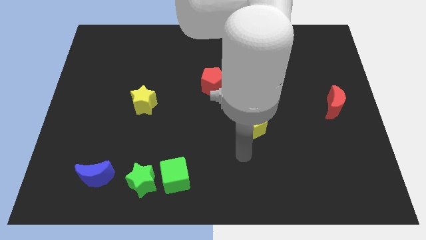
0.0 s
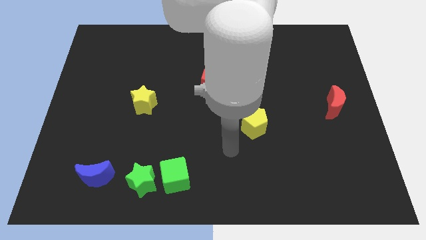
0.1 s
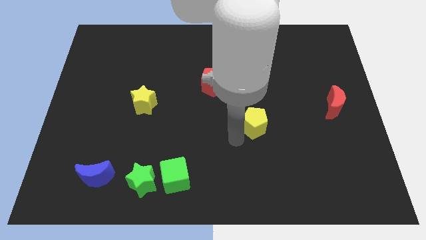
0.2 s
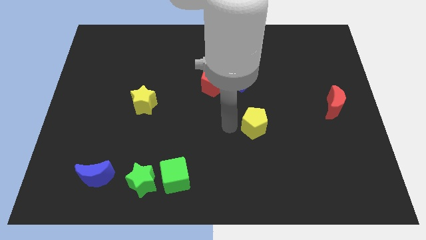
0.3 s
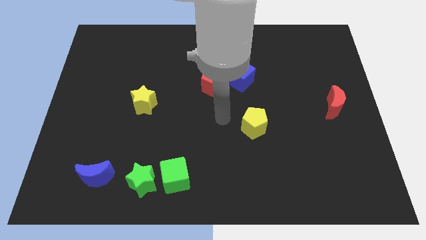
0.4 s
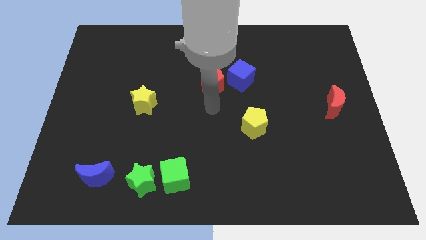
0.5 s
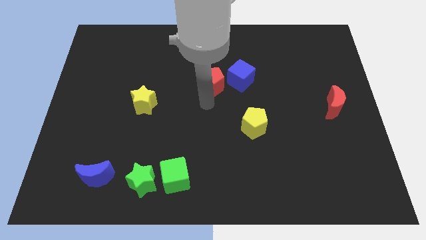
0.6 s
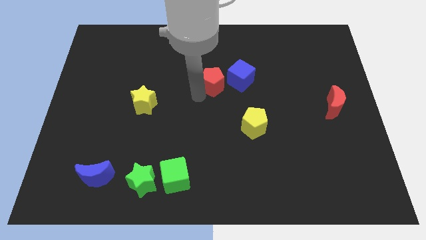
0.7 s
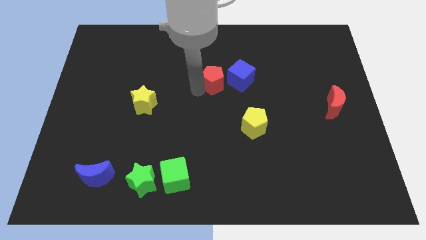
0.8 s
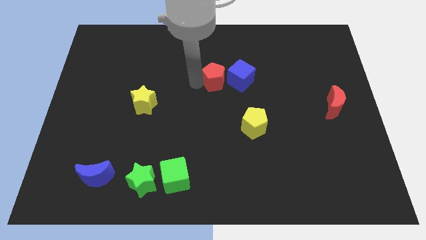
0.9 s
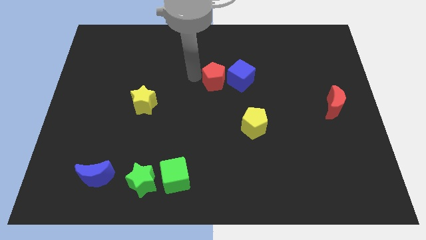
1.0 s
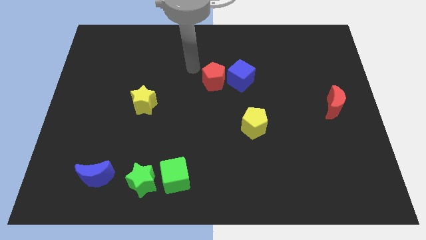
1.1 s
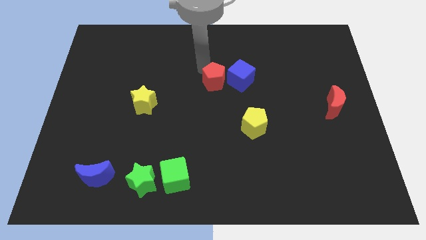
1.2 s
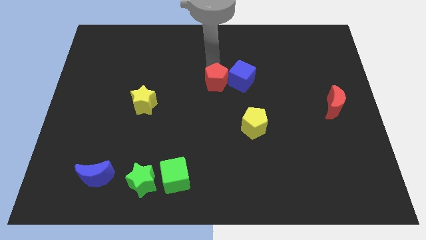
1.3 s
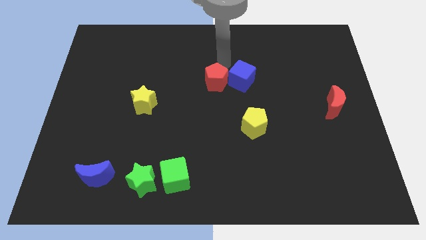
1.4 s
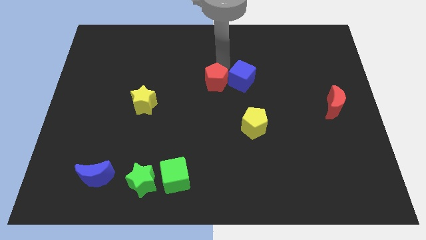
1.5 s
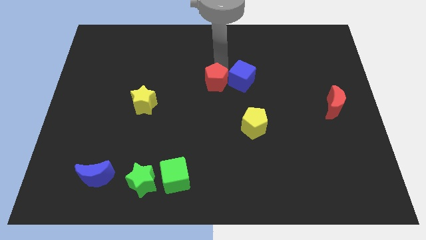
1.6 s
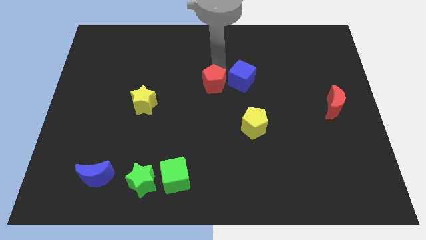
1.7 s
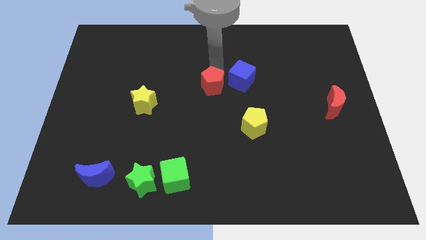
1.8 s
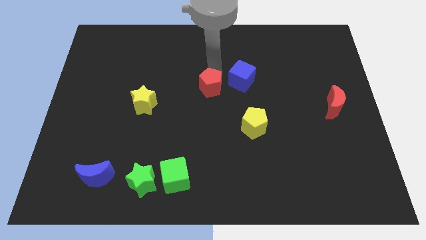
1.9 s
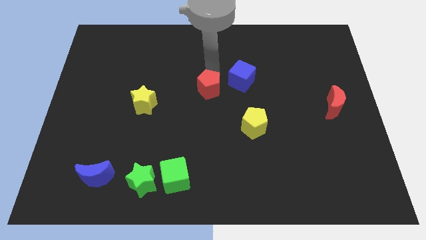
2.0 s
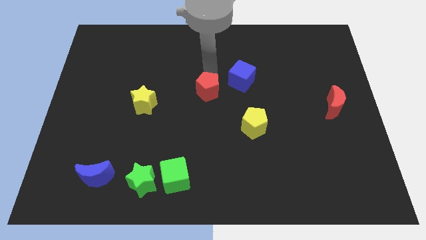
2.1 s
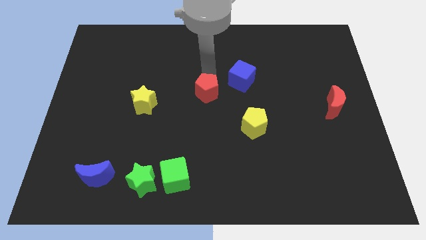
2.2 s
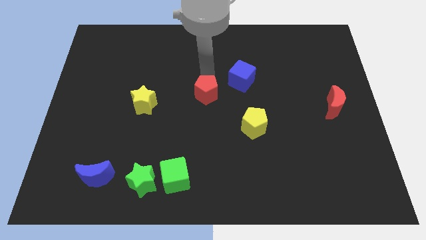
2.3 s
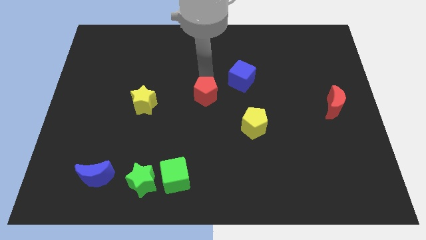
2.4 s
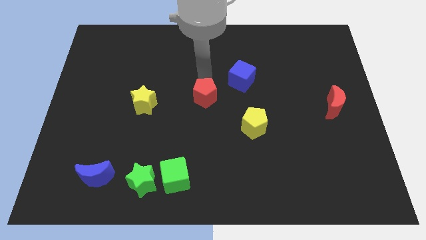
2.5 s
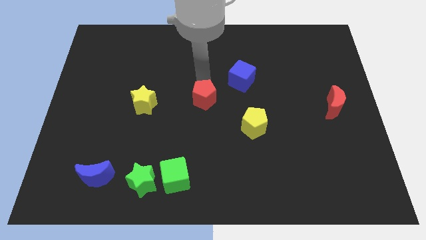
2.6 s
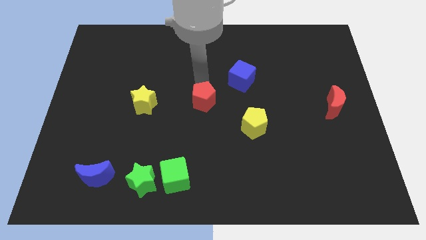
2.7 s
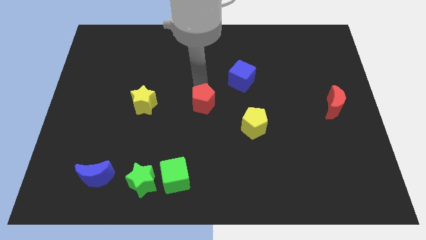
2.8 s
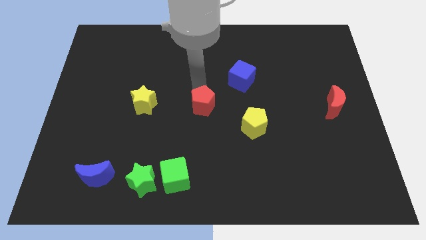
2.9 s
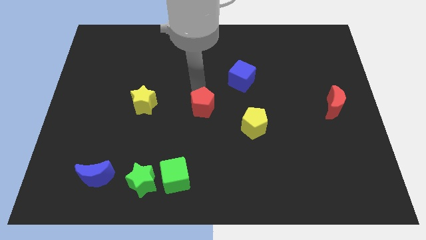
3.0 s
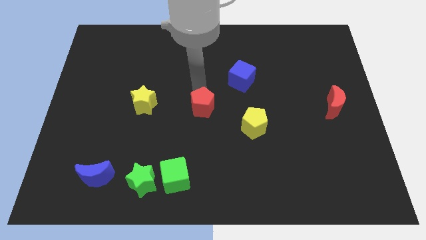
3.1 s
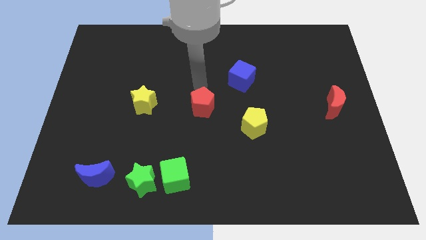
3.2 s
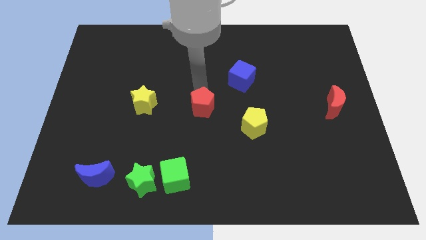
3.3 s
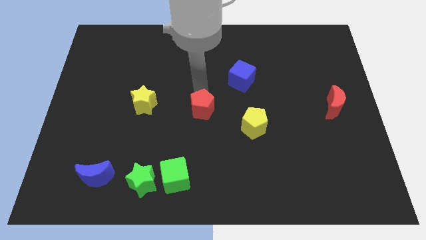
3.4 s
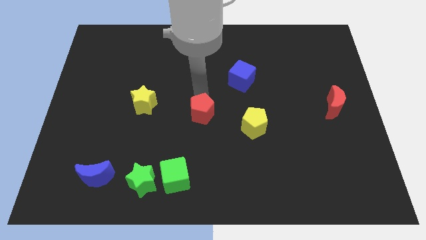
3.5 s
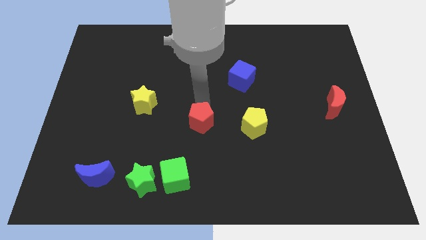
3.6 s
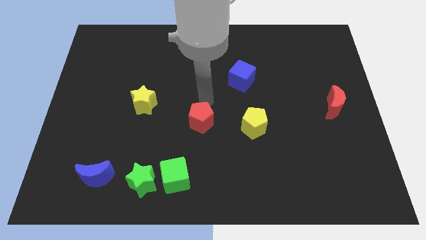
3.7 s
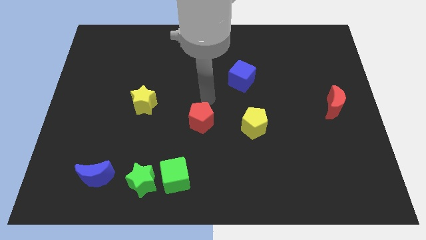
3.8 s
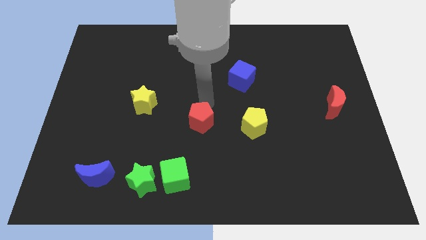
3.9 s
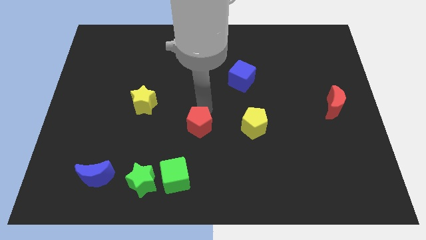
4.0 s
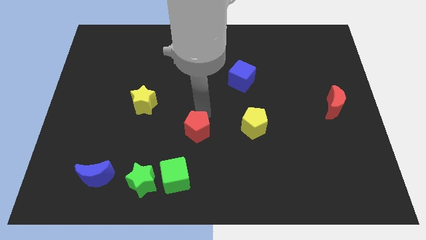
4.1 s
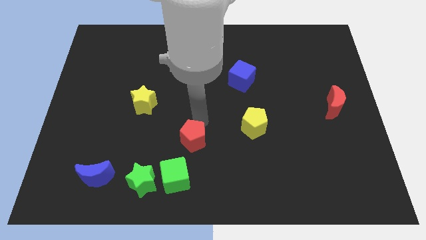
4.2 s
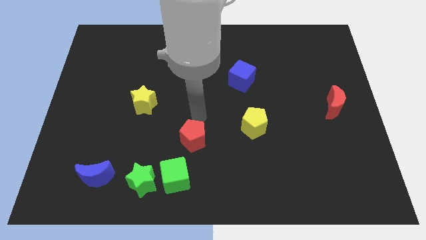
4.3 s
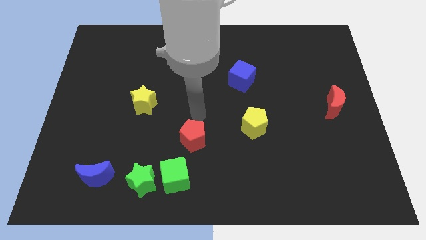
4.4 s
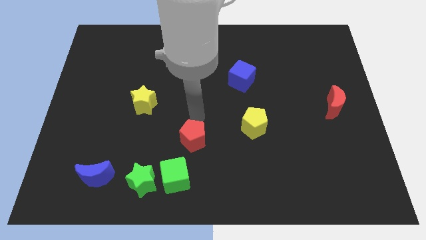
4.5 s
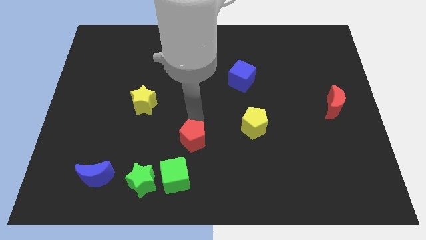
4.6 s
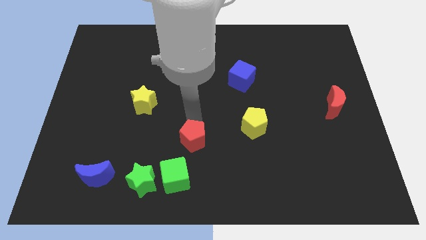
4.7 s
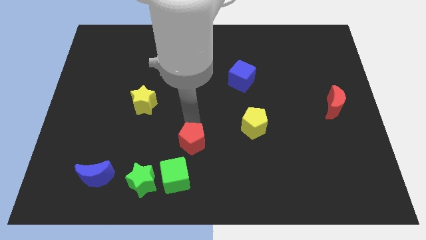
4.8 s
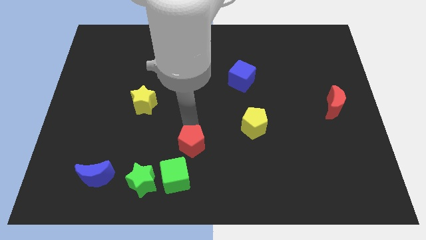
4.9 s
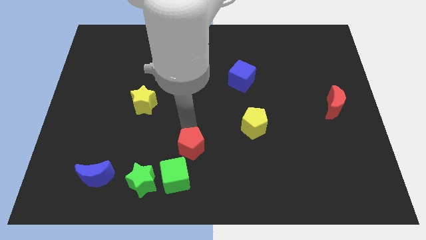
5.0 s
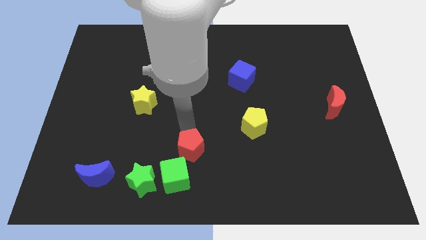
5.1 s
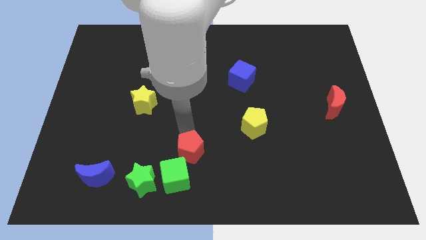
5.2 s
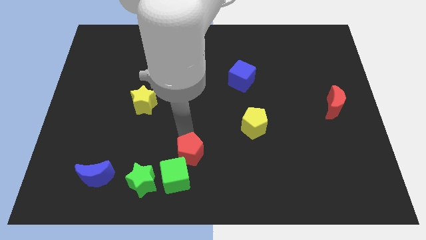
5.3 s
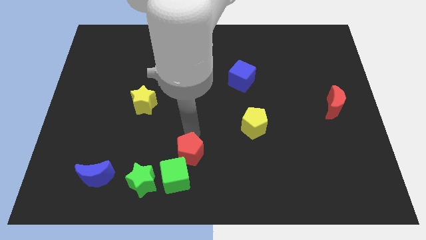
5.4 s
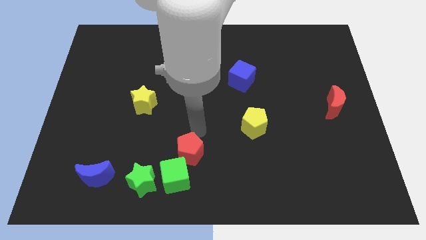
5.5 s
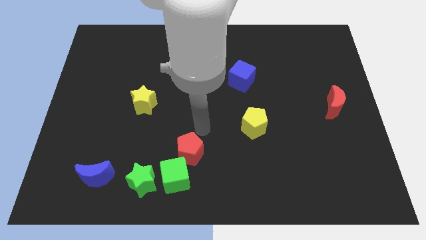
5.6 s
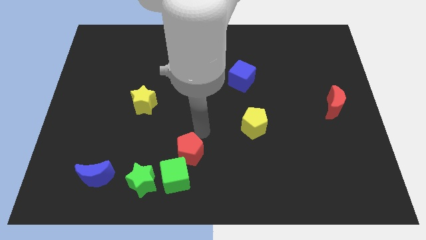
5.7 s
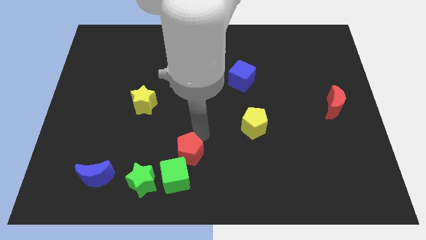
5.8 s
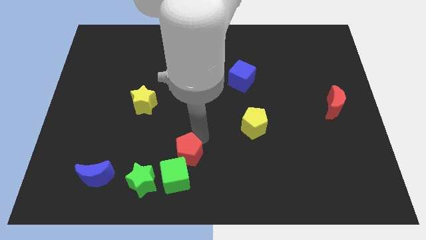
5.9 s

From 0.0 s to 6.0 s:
move the red pentagon next to the green cube

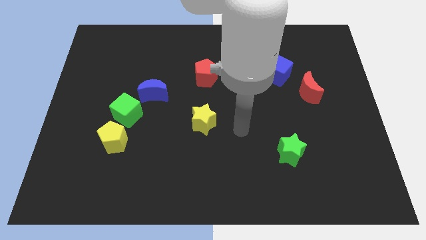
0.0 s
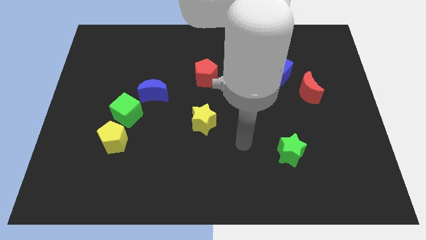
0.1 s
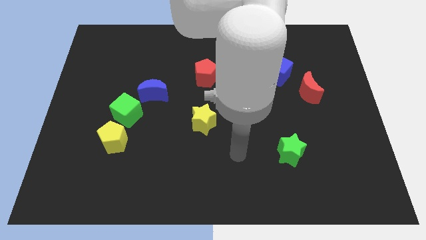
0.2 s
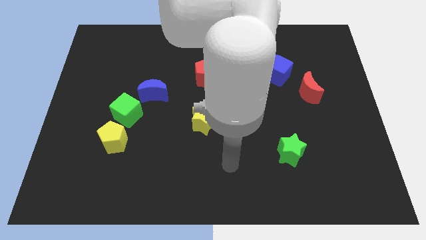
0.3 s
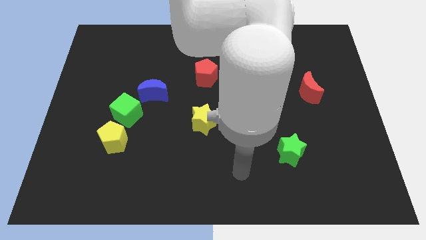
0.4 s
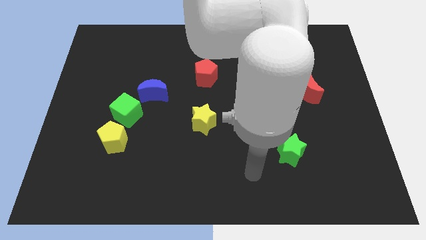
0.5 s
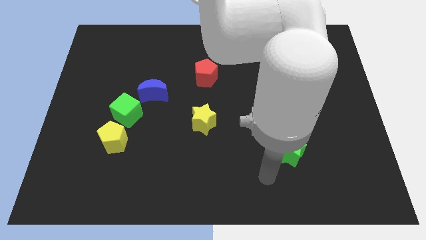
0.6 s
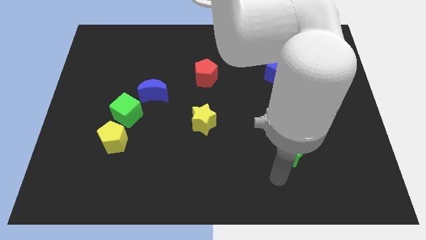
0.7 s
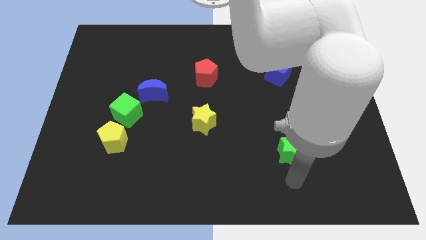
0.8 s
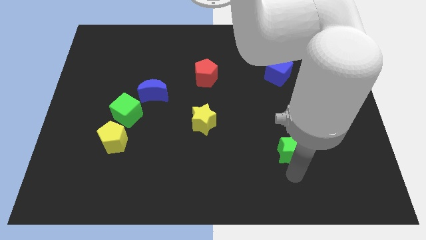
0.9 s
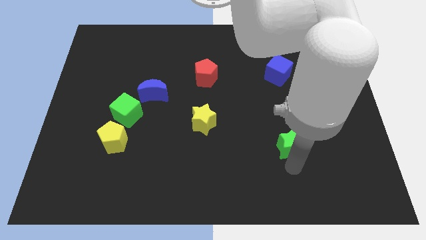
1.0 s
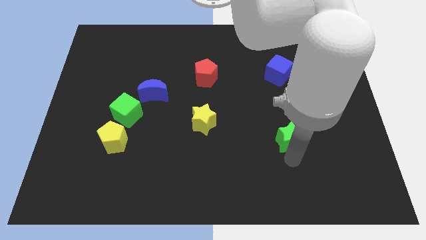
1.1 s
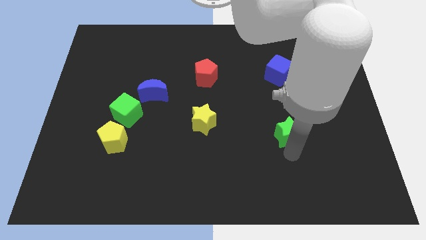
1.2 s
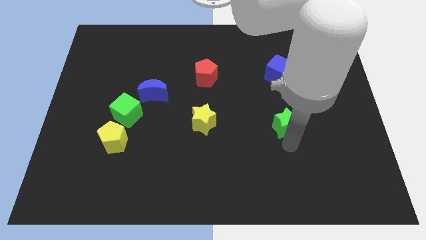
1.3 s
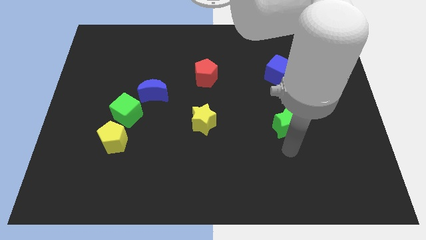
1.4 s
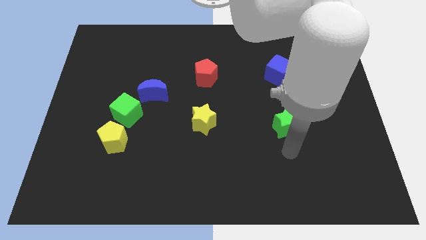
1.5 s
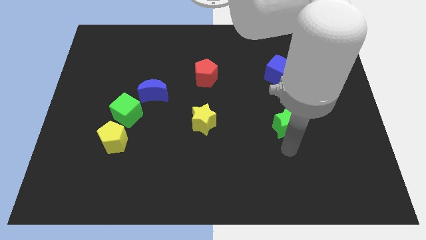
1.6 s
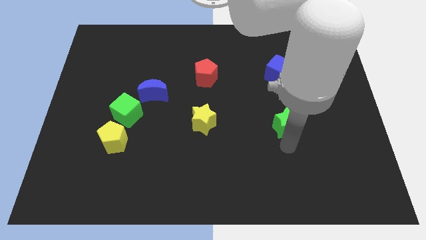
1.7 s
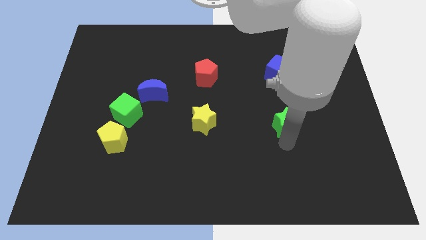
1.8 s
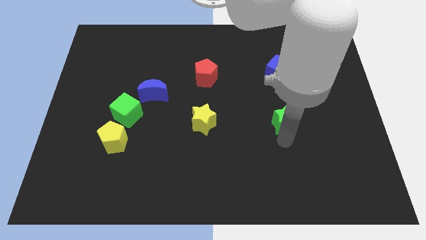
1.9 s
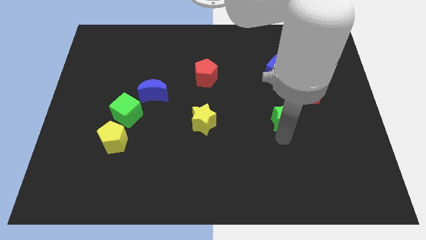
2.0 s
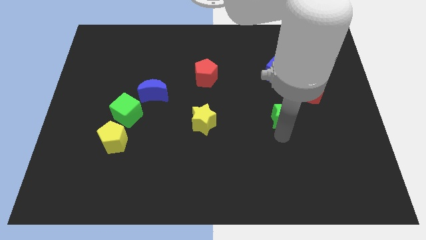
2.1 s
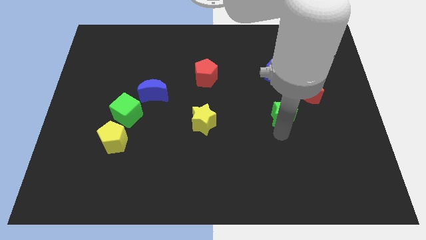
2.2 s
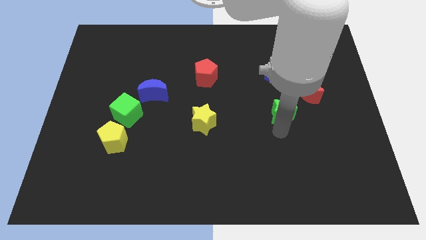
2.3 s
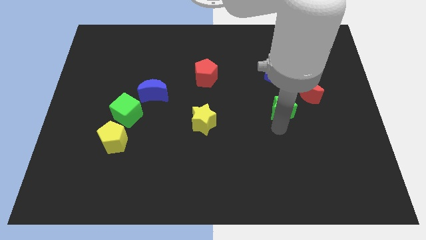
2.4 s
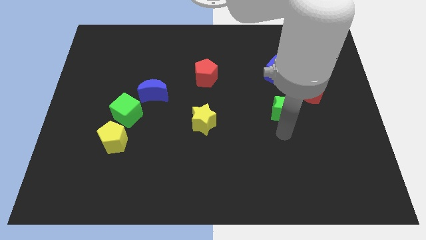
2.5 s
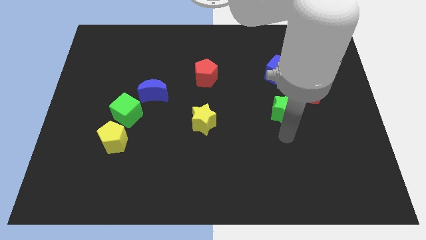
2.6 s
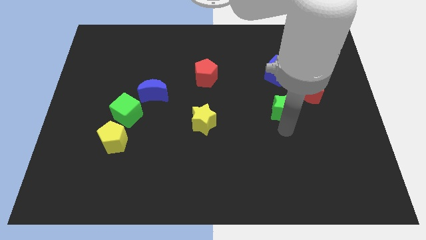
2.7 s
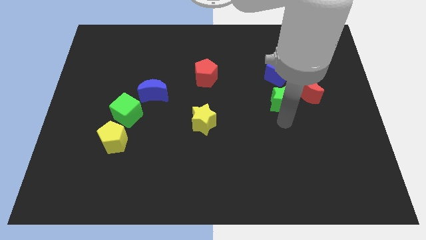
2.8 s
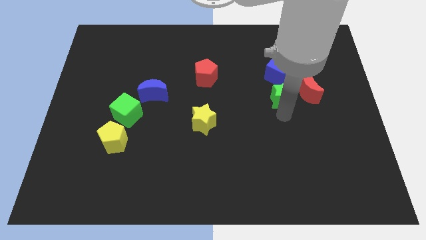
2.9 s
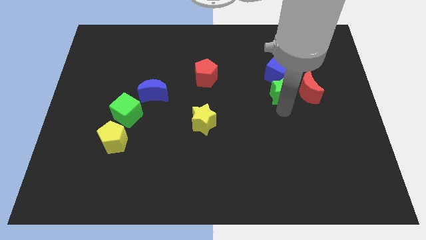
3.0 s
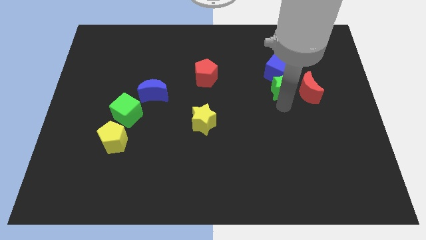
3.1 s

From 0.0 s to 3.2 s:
push the green star next to the blue cube
